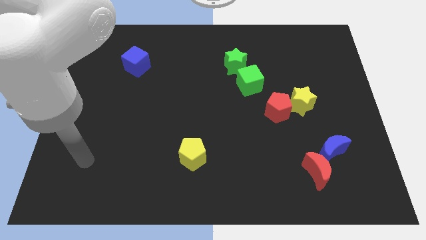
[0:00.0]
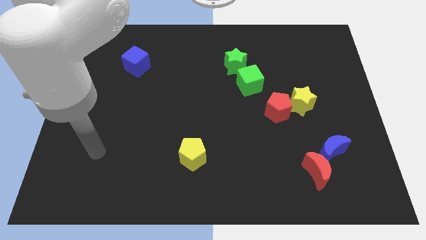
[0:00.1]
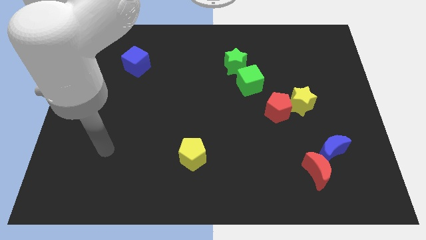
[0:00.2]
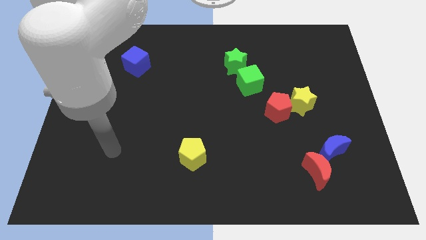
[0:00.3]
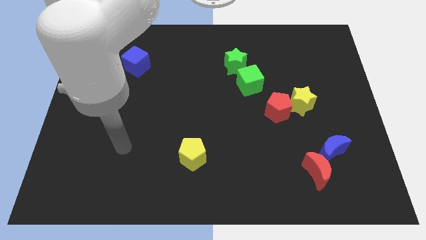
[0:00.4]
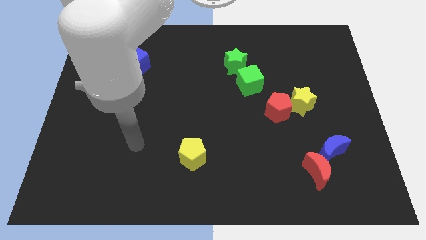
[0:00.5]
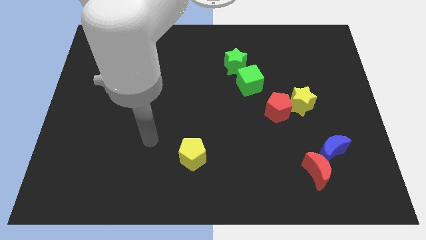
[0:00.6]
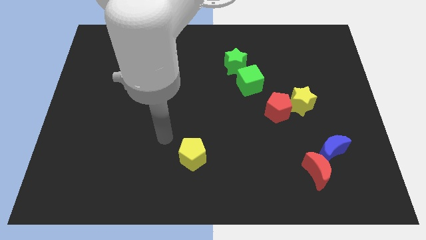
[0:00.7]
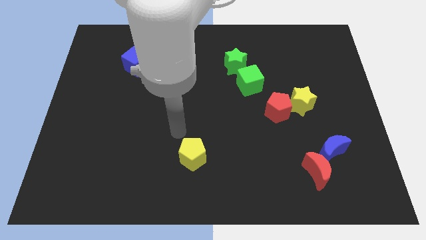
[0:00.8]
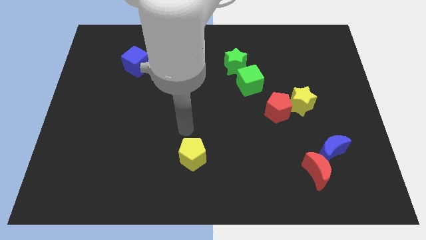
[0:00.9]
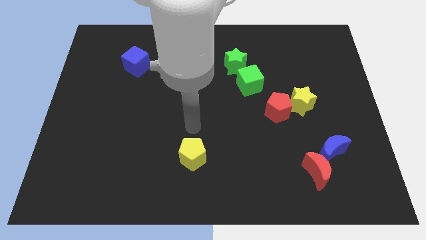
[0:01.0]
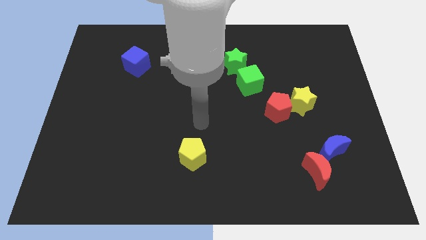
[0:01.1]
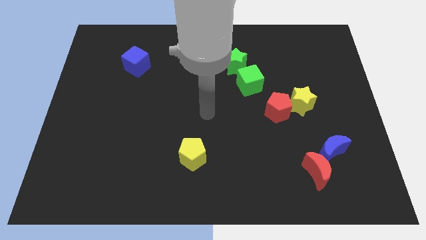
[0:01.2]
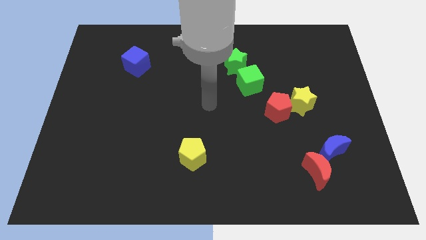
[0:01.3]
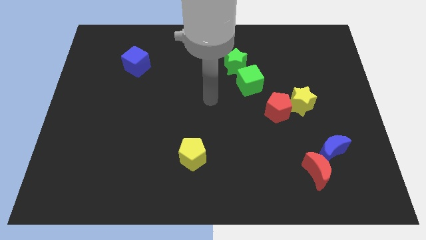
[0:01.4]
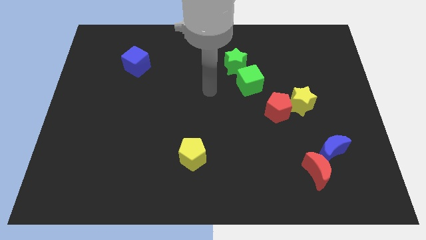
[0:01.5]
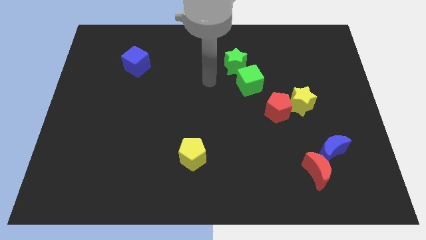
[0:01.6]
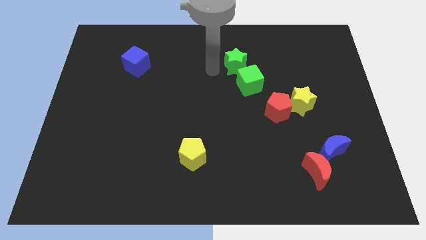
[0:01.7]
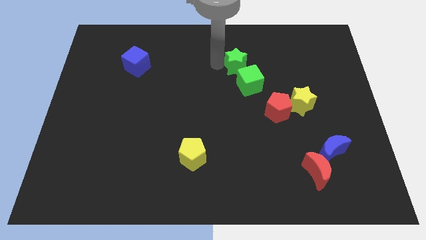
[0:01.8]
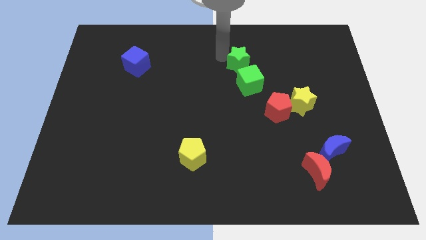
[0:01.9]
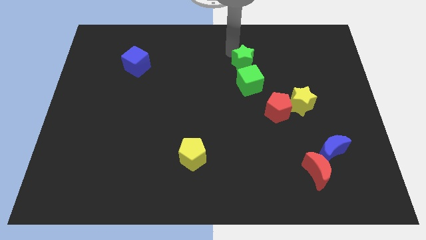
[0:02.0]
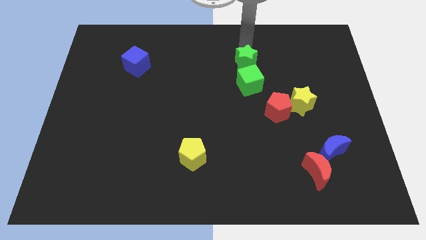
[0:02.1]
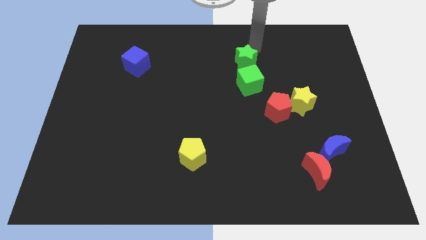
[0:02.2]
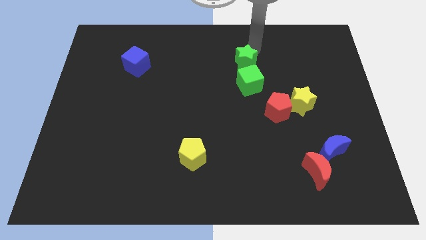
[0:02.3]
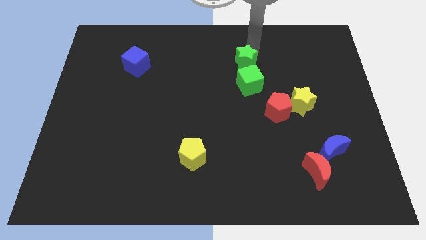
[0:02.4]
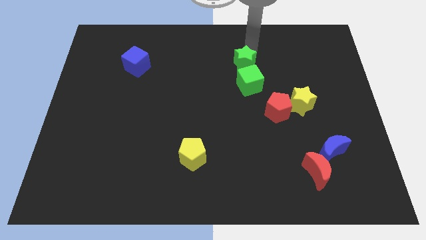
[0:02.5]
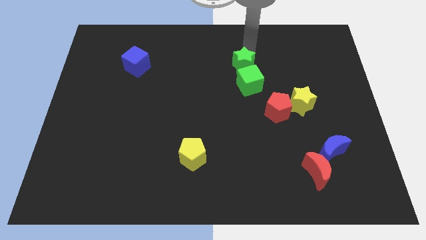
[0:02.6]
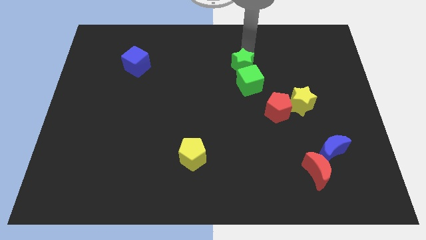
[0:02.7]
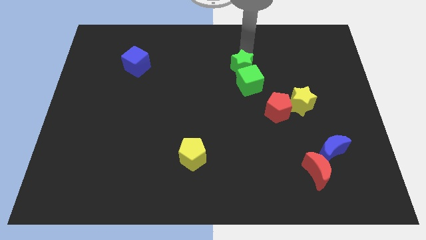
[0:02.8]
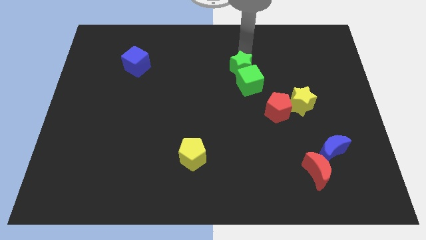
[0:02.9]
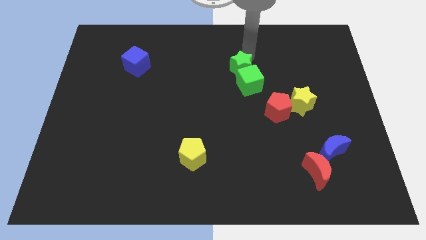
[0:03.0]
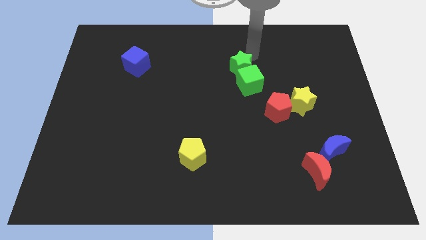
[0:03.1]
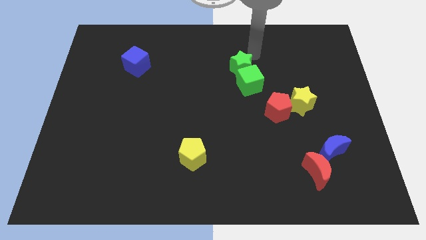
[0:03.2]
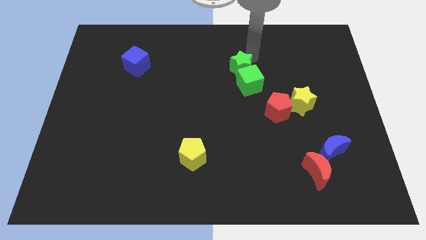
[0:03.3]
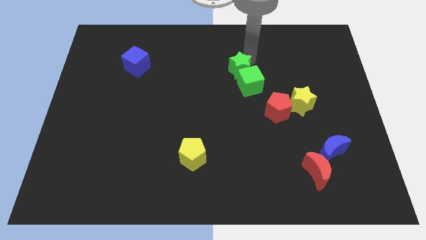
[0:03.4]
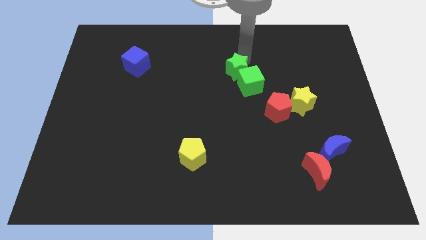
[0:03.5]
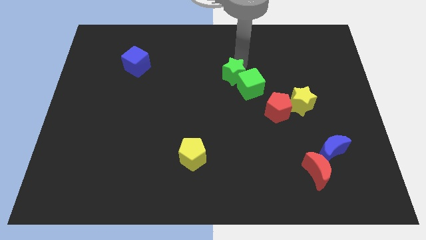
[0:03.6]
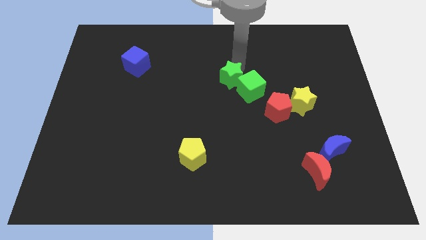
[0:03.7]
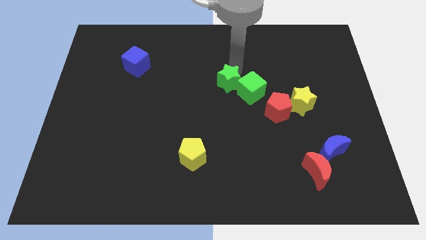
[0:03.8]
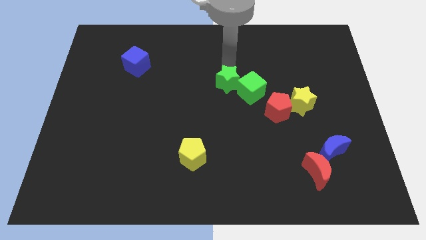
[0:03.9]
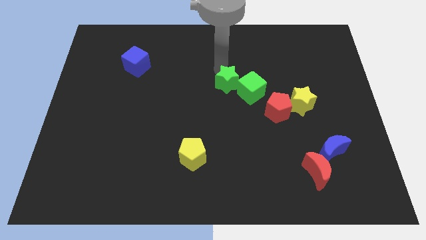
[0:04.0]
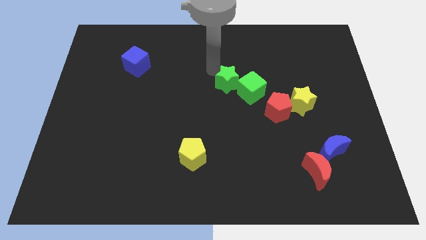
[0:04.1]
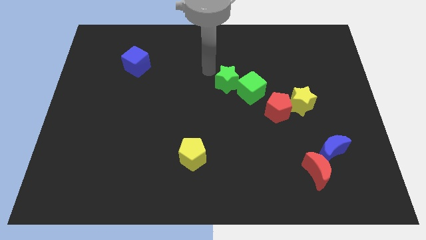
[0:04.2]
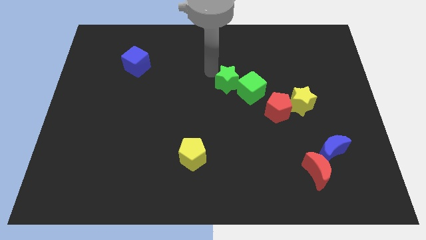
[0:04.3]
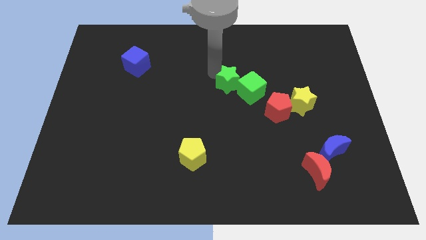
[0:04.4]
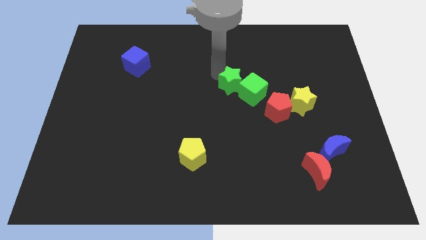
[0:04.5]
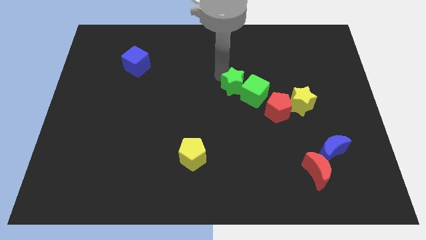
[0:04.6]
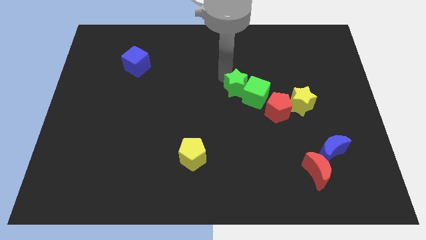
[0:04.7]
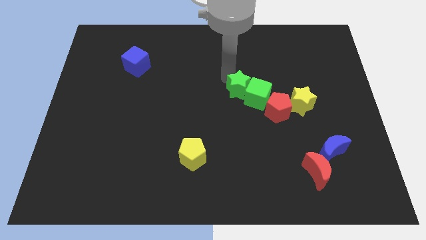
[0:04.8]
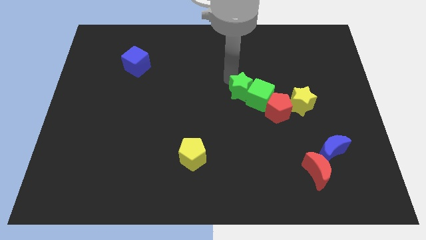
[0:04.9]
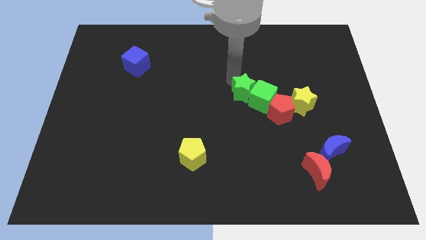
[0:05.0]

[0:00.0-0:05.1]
move the green star to the left side of the yellow star

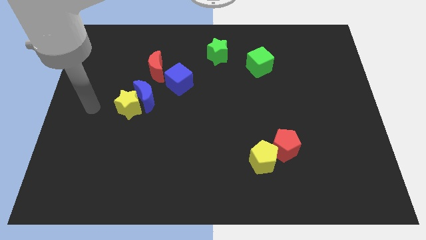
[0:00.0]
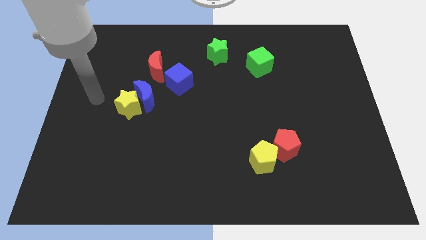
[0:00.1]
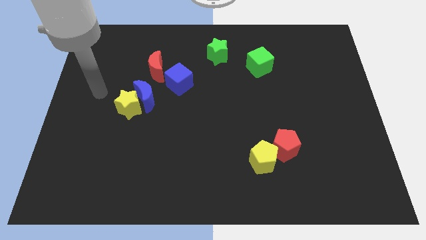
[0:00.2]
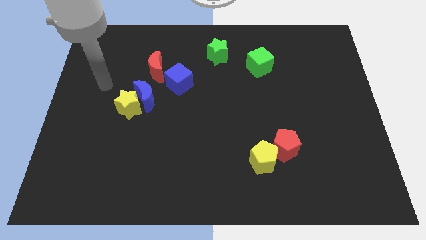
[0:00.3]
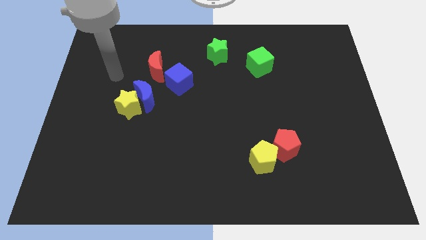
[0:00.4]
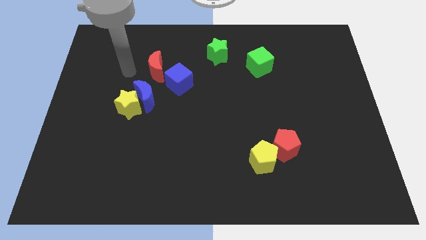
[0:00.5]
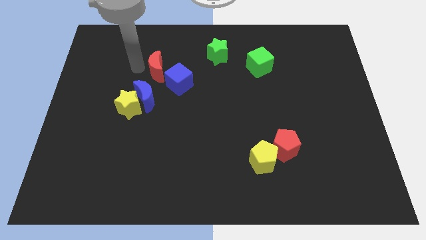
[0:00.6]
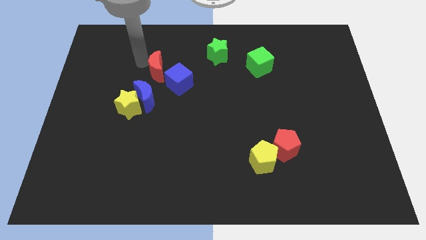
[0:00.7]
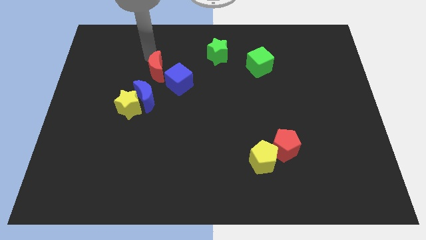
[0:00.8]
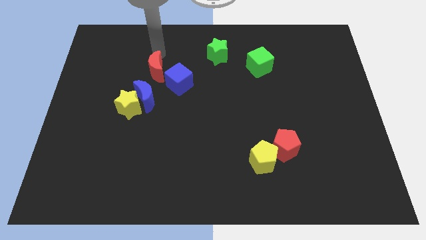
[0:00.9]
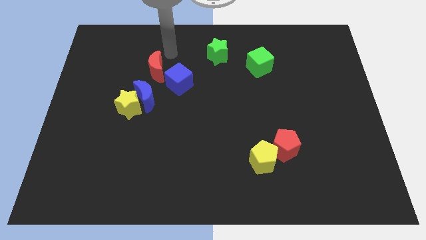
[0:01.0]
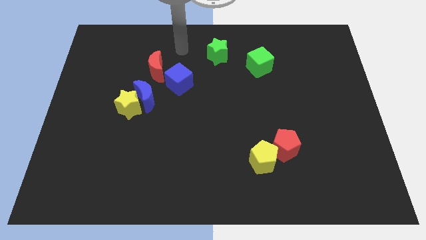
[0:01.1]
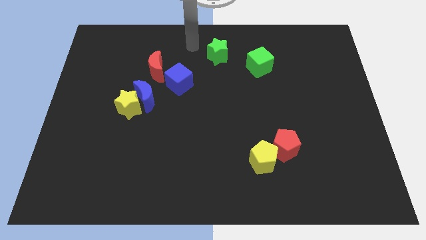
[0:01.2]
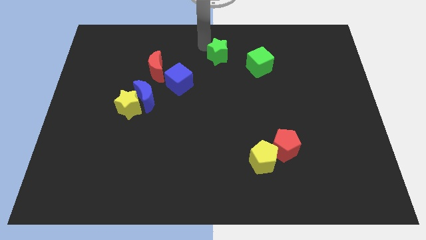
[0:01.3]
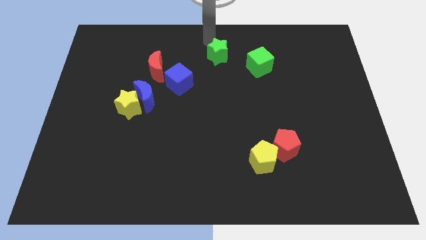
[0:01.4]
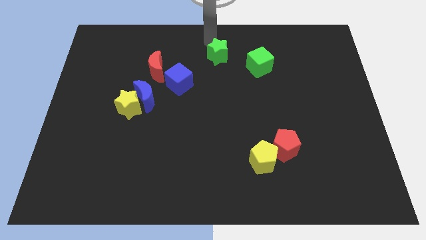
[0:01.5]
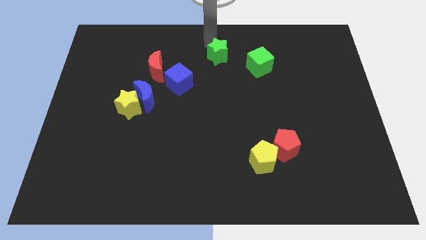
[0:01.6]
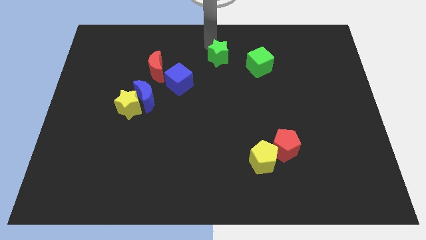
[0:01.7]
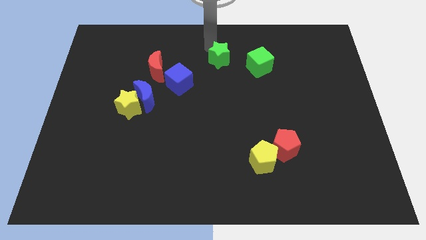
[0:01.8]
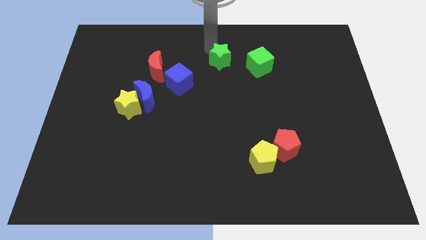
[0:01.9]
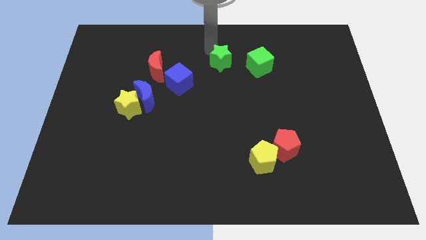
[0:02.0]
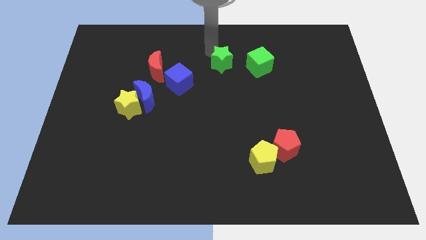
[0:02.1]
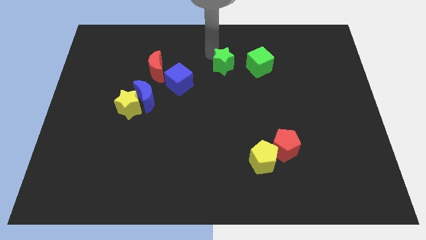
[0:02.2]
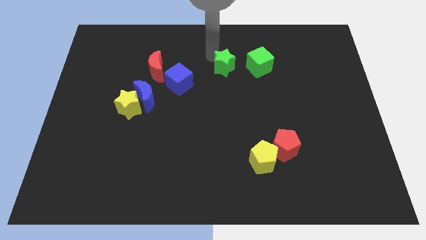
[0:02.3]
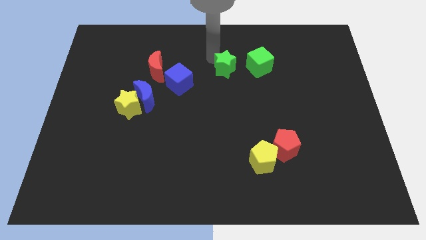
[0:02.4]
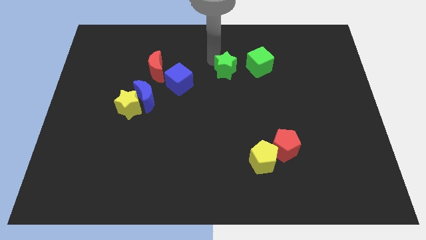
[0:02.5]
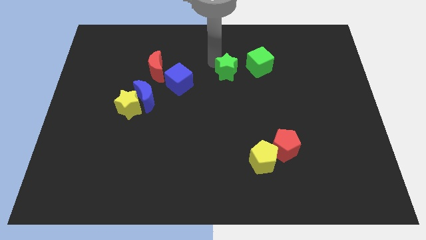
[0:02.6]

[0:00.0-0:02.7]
push the green star to the bottom left of the green cube

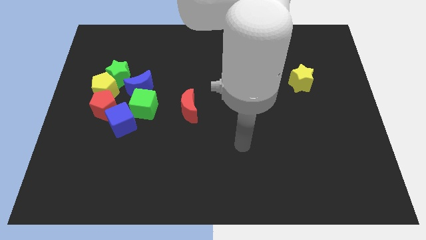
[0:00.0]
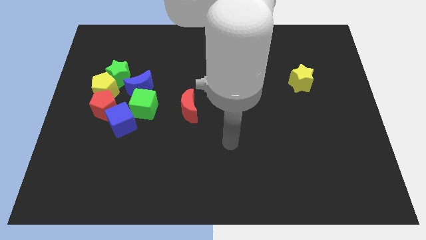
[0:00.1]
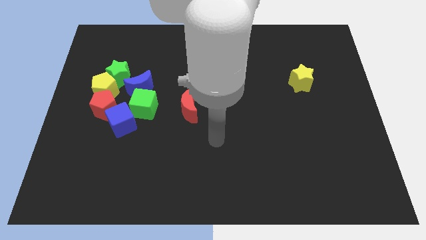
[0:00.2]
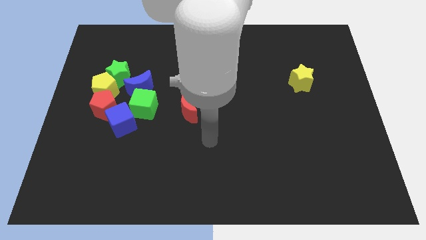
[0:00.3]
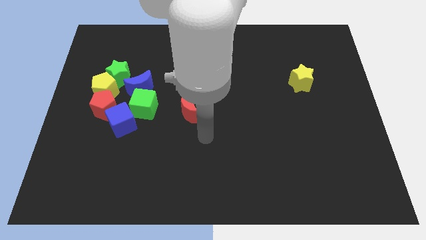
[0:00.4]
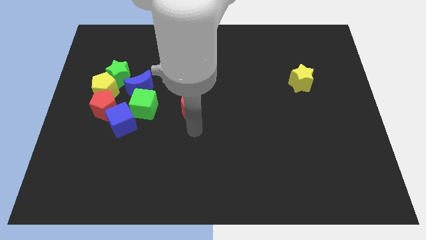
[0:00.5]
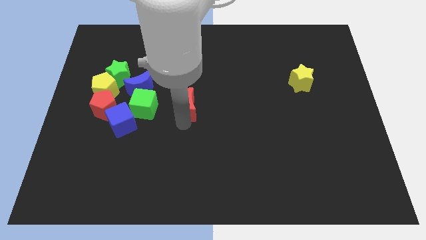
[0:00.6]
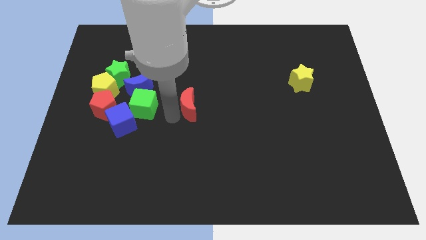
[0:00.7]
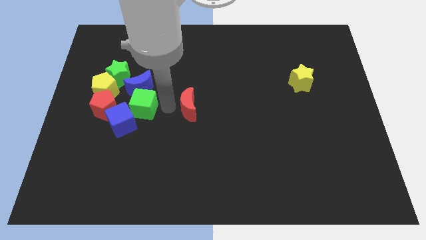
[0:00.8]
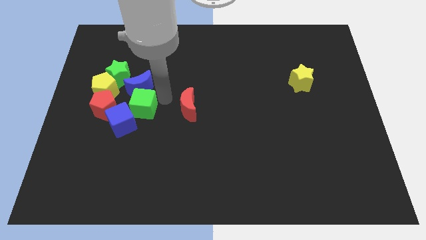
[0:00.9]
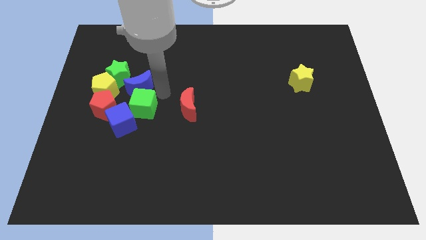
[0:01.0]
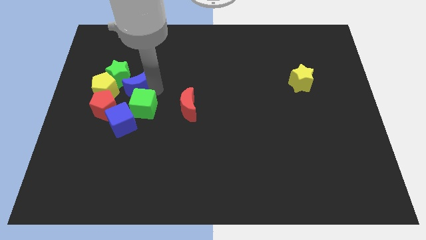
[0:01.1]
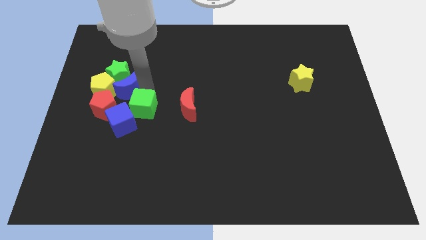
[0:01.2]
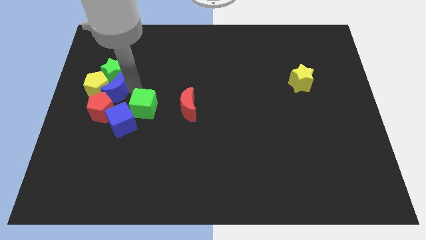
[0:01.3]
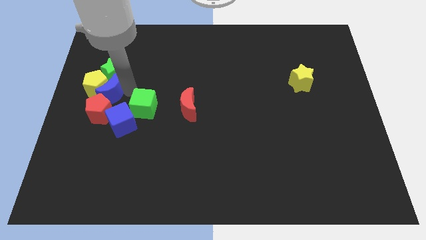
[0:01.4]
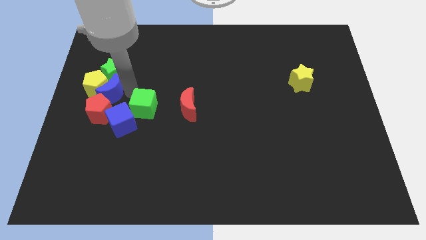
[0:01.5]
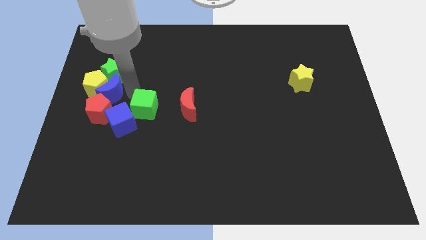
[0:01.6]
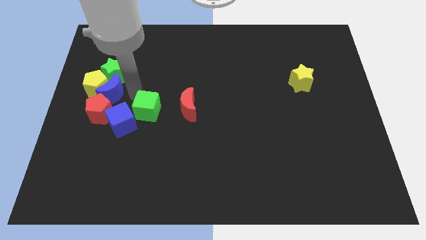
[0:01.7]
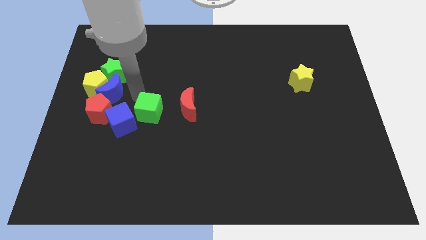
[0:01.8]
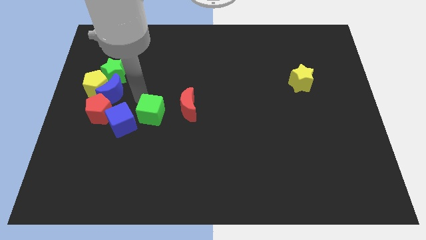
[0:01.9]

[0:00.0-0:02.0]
move the green cube to the bottom left of the red moon
